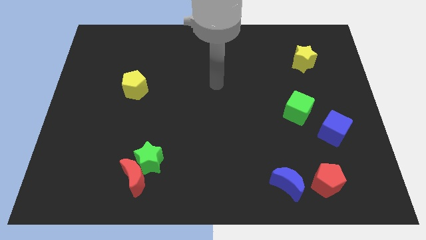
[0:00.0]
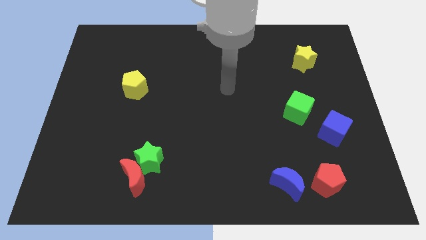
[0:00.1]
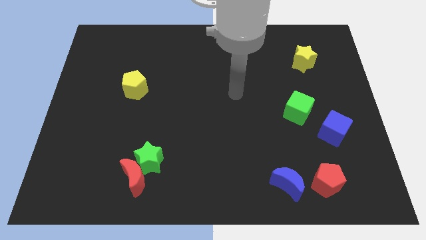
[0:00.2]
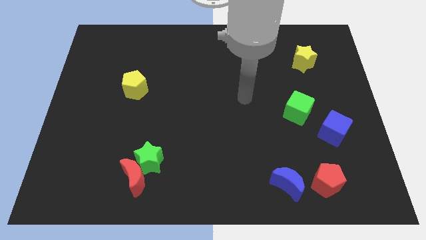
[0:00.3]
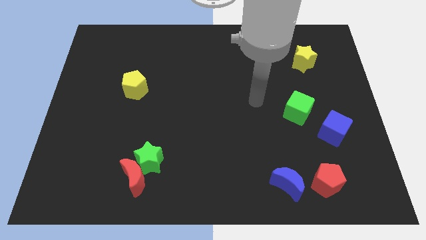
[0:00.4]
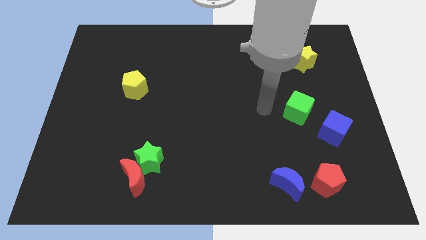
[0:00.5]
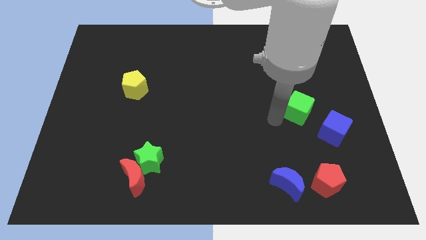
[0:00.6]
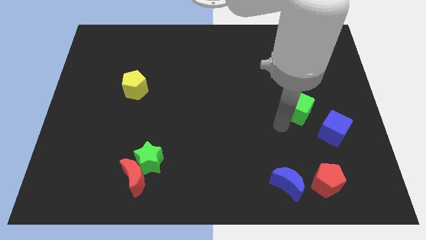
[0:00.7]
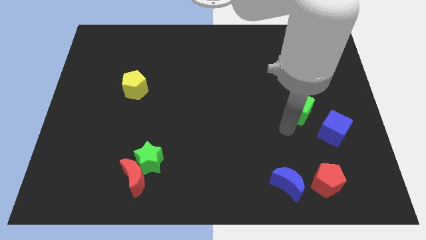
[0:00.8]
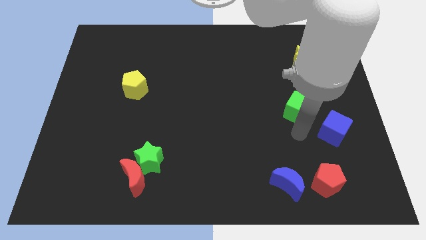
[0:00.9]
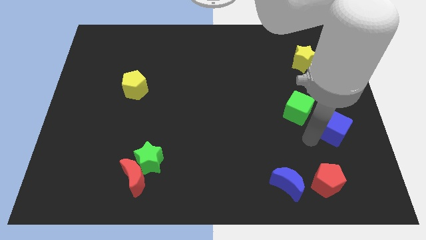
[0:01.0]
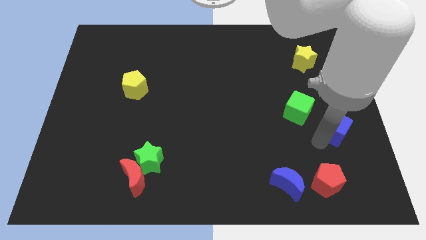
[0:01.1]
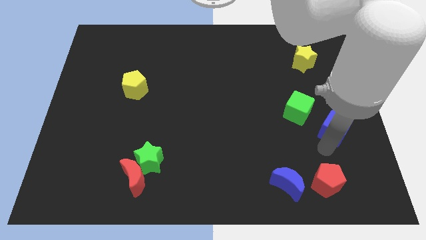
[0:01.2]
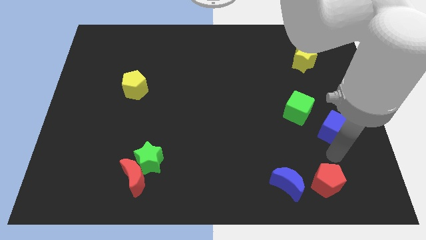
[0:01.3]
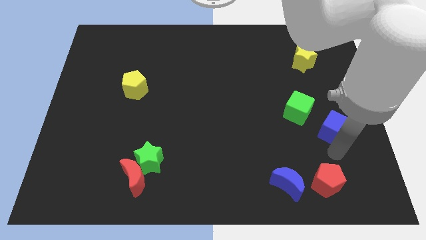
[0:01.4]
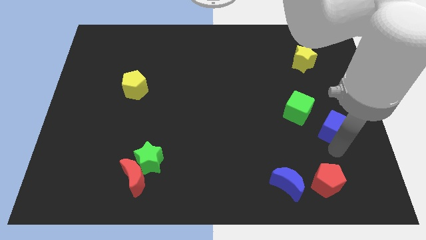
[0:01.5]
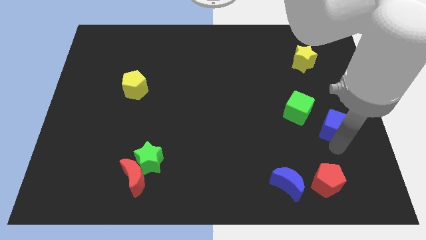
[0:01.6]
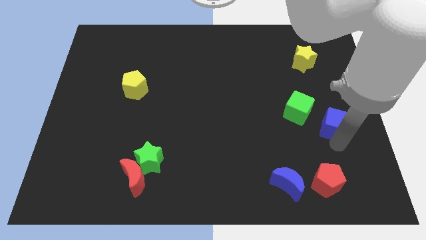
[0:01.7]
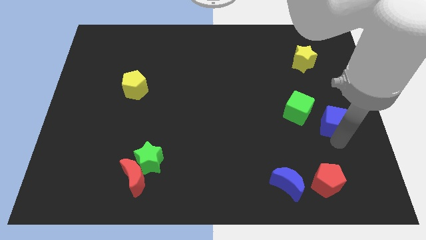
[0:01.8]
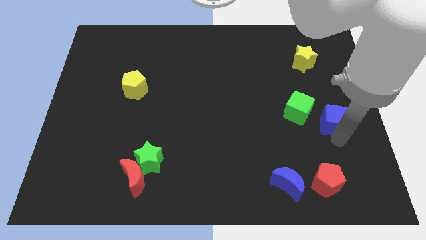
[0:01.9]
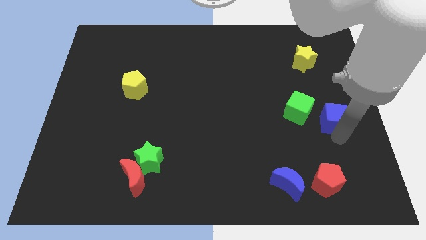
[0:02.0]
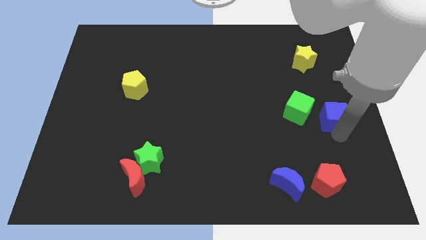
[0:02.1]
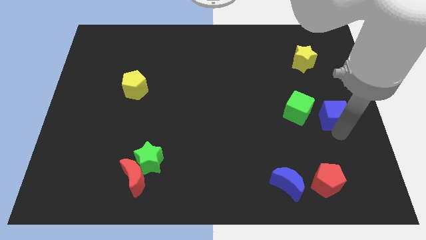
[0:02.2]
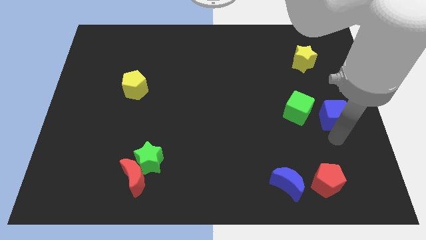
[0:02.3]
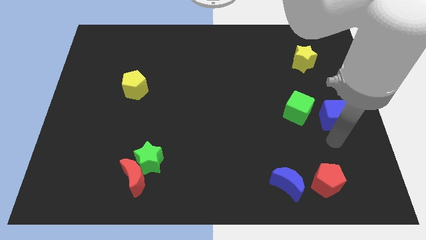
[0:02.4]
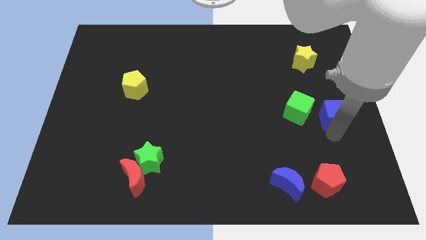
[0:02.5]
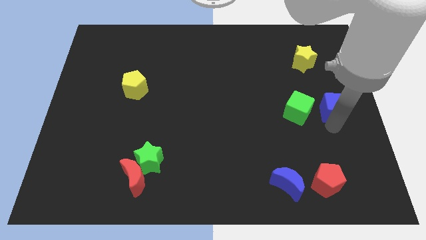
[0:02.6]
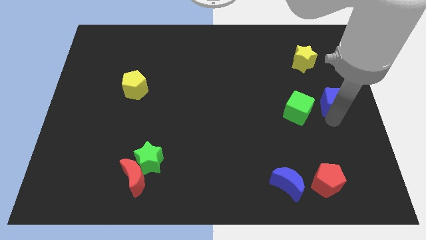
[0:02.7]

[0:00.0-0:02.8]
slightly push the blue cube upwards

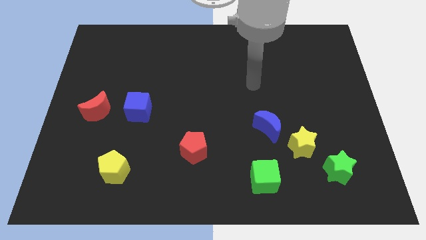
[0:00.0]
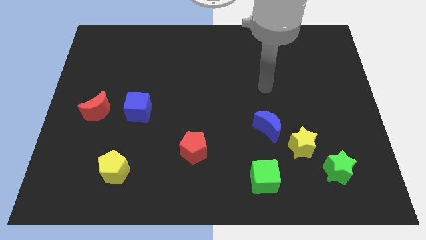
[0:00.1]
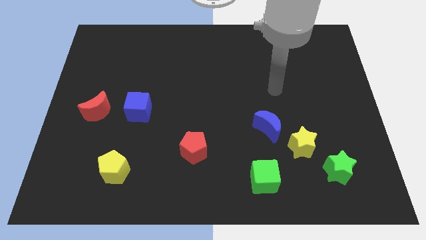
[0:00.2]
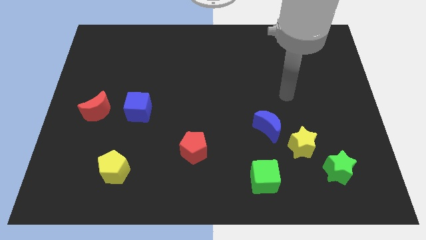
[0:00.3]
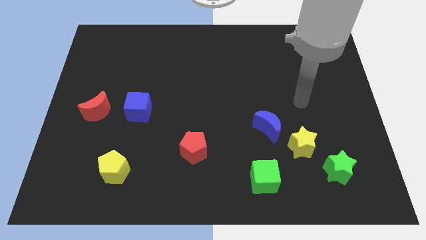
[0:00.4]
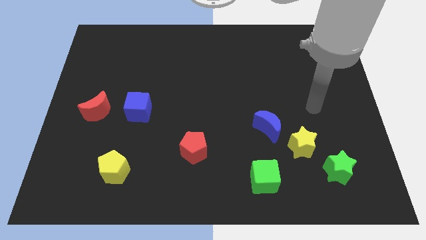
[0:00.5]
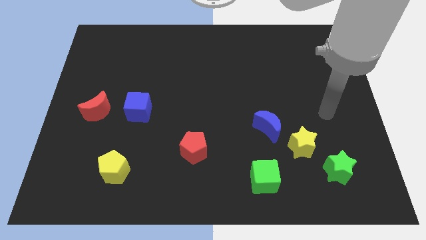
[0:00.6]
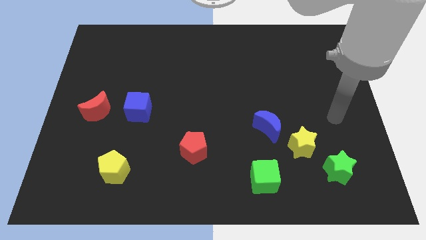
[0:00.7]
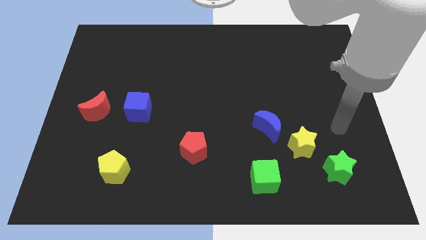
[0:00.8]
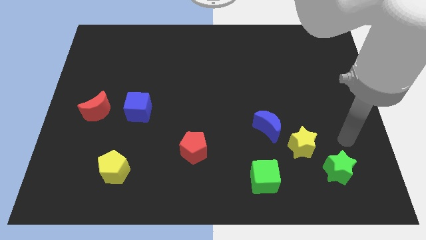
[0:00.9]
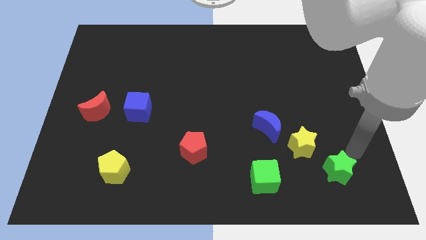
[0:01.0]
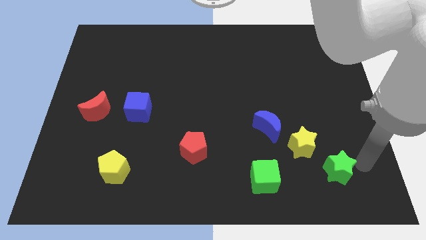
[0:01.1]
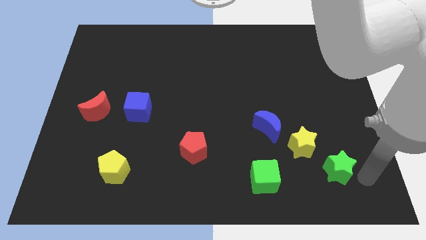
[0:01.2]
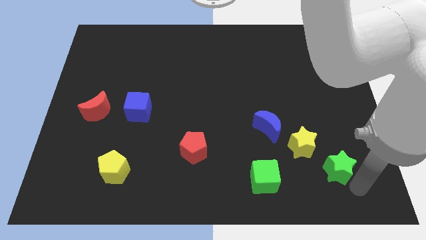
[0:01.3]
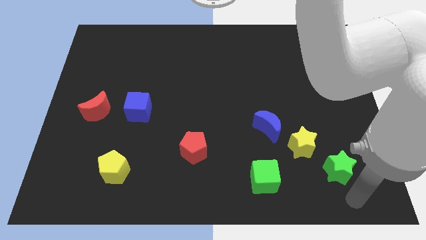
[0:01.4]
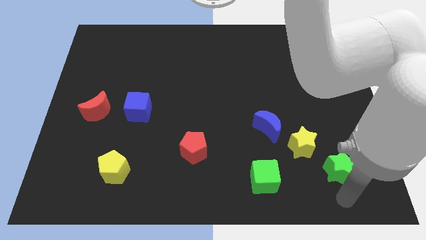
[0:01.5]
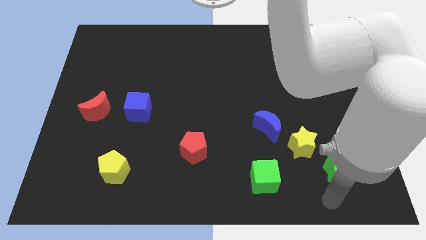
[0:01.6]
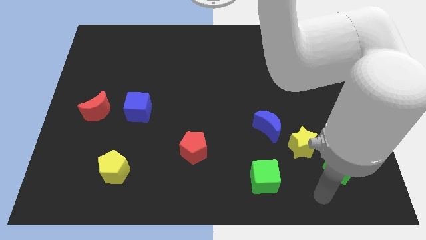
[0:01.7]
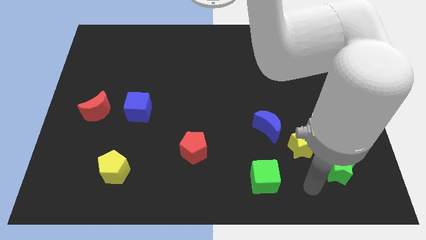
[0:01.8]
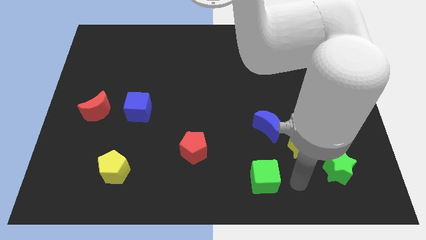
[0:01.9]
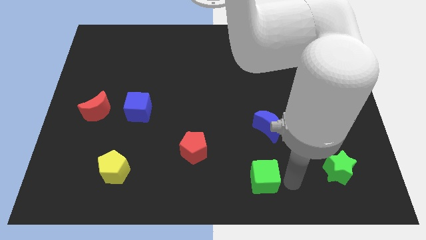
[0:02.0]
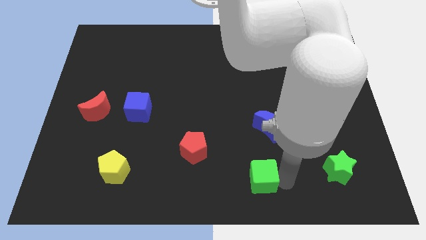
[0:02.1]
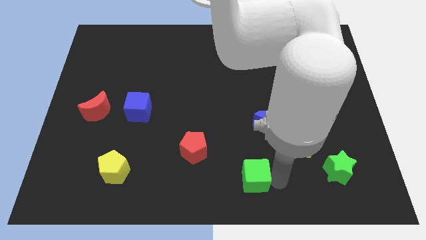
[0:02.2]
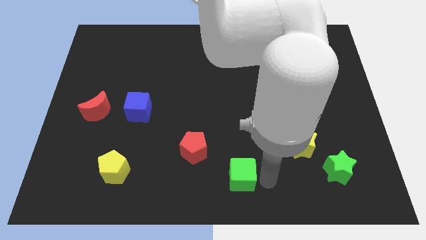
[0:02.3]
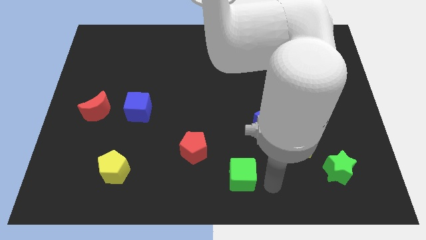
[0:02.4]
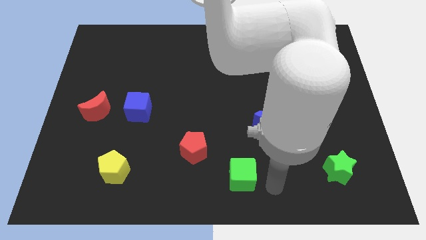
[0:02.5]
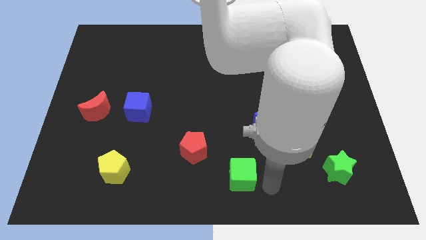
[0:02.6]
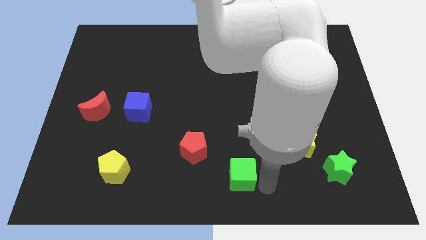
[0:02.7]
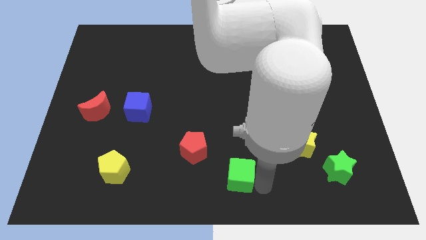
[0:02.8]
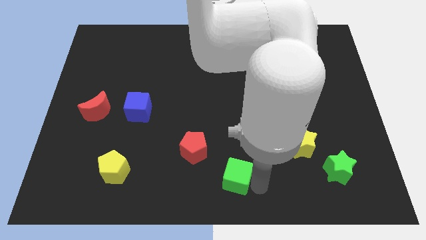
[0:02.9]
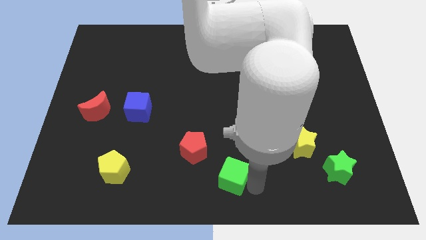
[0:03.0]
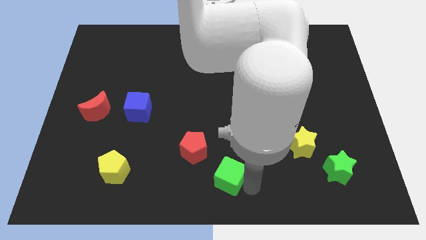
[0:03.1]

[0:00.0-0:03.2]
slightly slide the green cube to the left

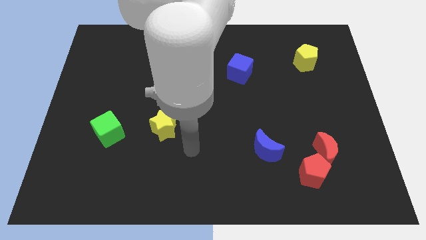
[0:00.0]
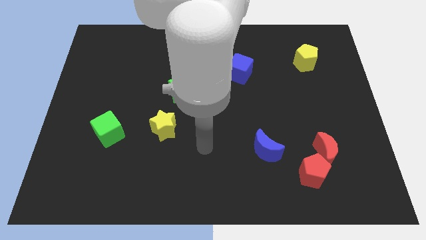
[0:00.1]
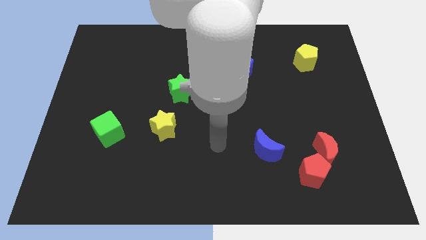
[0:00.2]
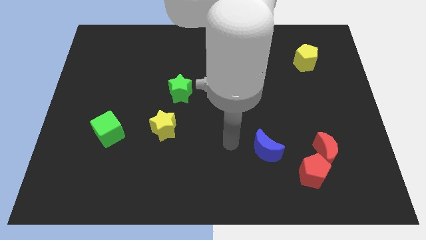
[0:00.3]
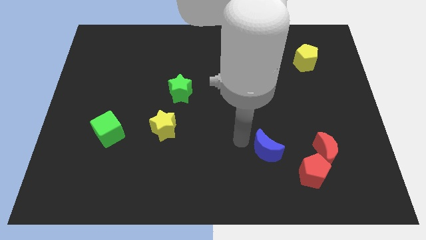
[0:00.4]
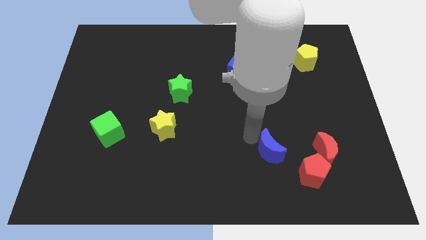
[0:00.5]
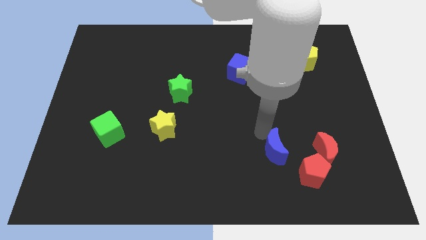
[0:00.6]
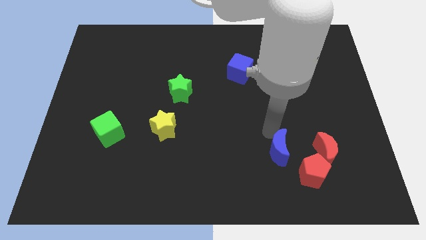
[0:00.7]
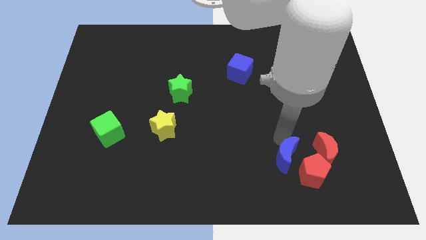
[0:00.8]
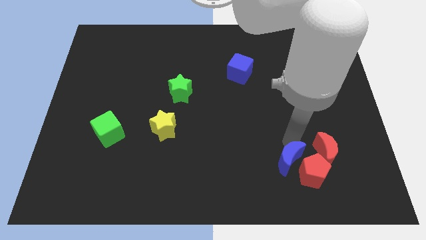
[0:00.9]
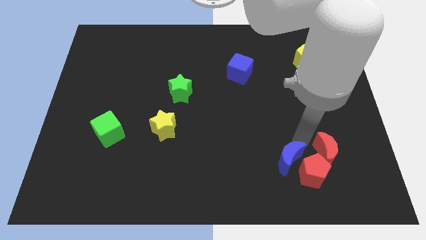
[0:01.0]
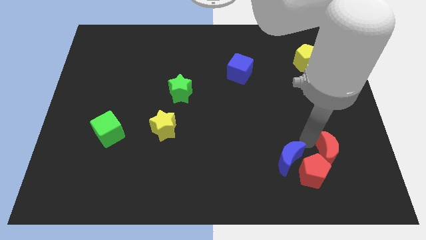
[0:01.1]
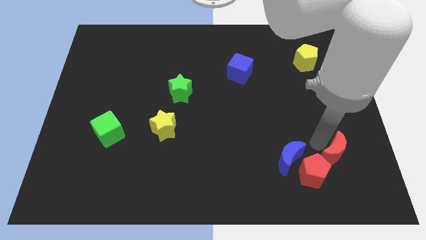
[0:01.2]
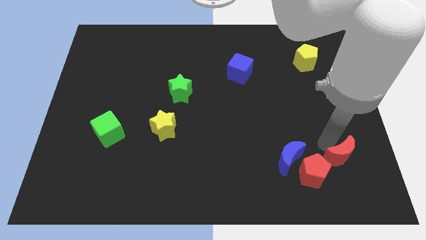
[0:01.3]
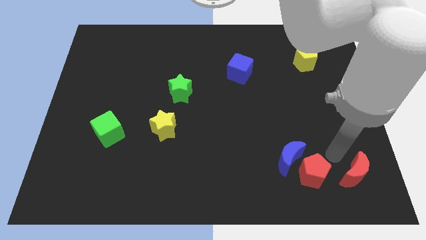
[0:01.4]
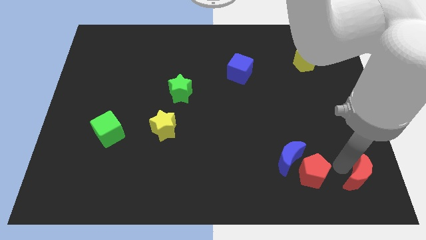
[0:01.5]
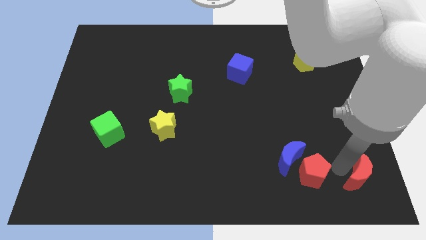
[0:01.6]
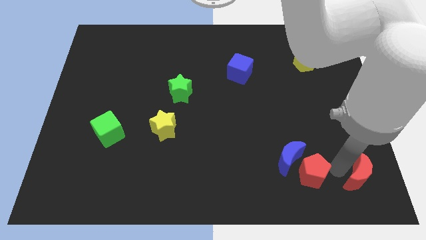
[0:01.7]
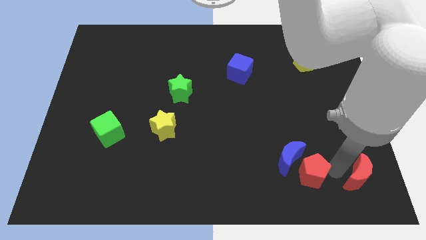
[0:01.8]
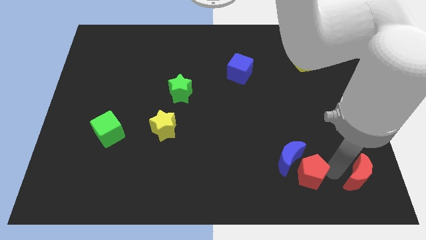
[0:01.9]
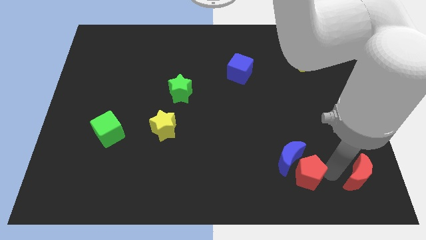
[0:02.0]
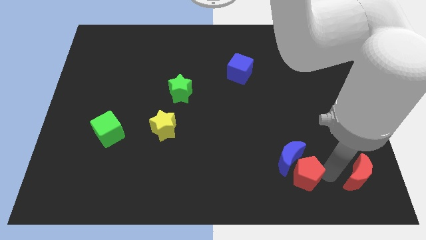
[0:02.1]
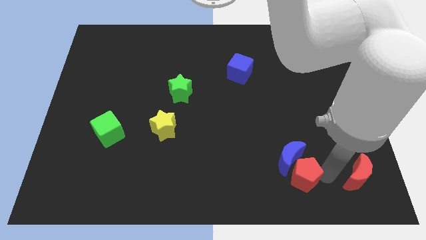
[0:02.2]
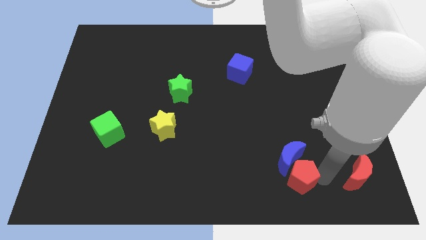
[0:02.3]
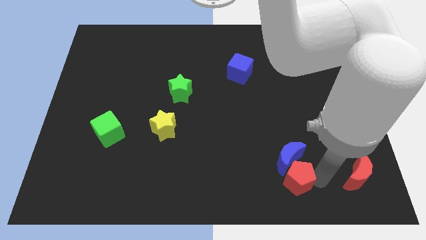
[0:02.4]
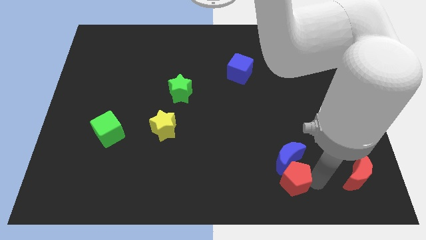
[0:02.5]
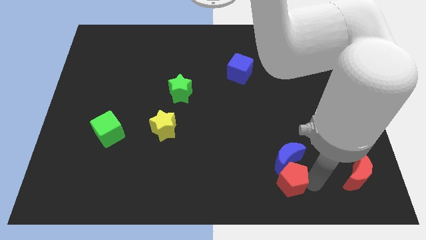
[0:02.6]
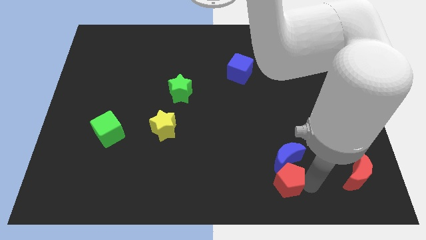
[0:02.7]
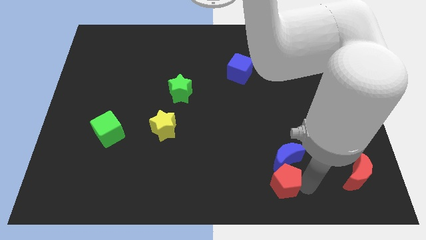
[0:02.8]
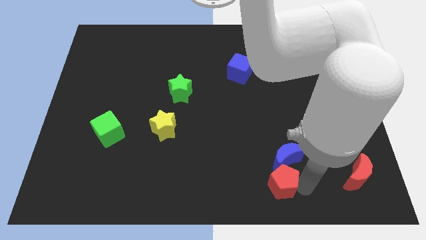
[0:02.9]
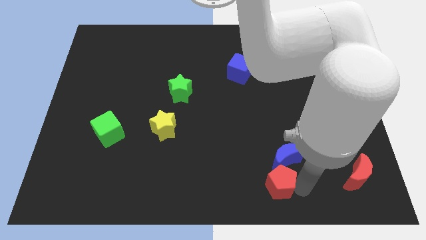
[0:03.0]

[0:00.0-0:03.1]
slightly push the red pentagon left
